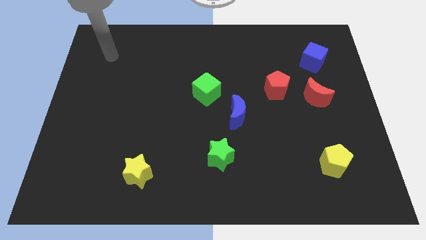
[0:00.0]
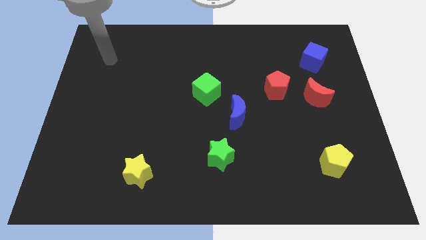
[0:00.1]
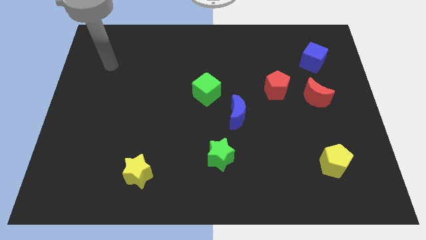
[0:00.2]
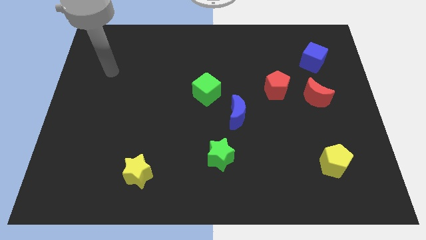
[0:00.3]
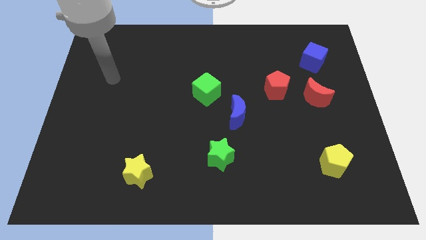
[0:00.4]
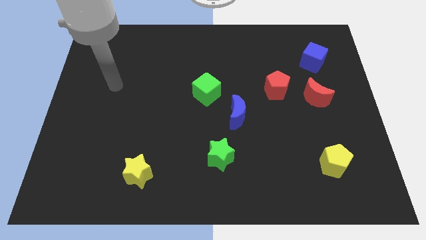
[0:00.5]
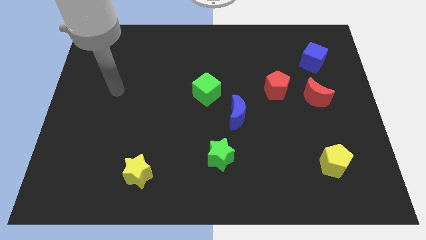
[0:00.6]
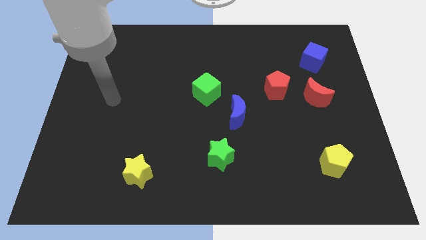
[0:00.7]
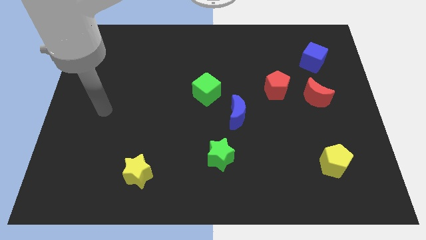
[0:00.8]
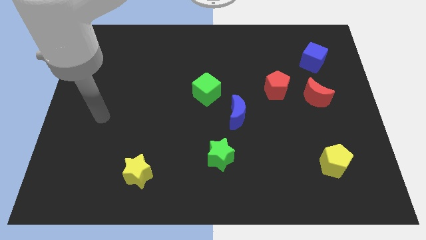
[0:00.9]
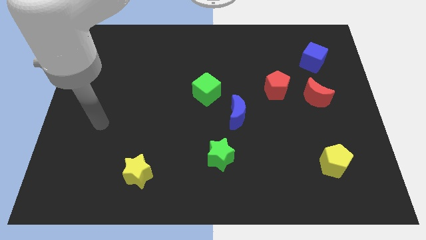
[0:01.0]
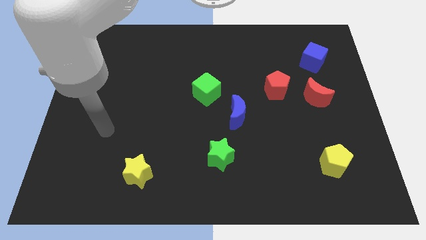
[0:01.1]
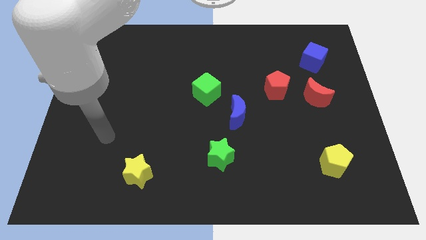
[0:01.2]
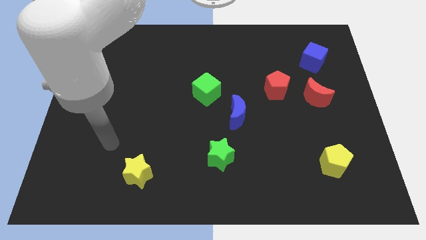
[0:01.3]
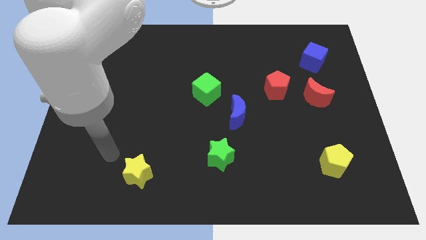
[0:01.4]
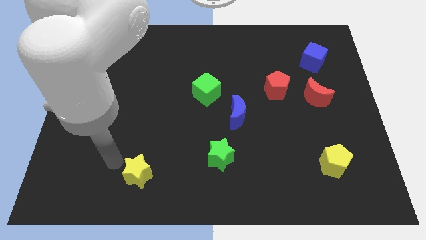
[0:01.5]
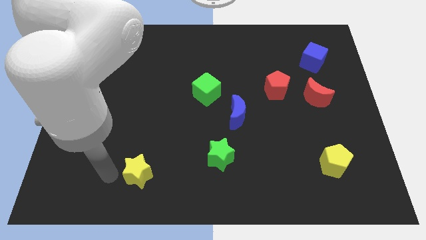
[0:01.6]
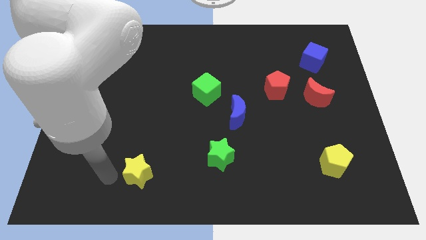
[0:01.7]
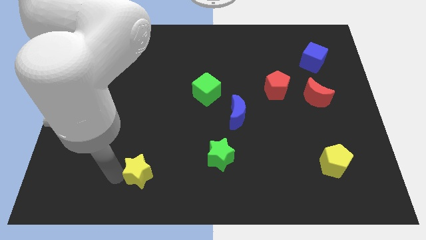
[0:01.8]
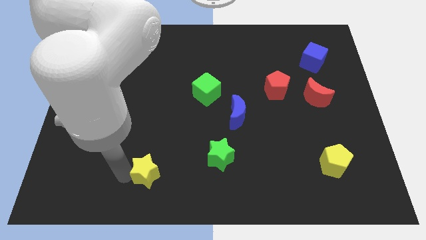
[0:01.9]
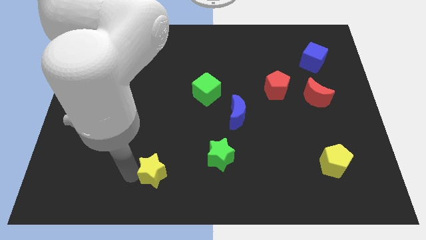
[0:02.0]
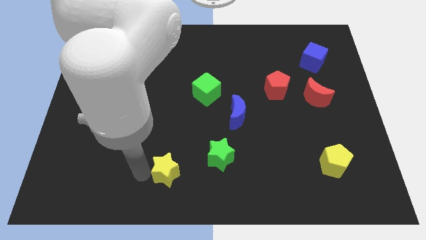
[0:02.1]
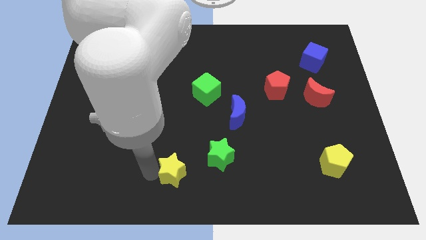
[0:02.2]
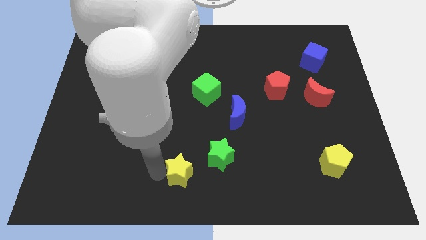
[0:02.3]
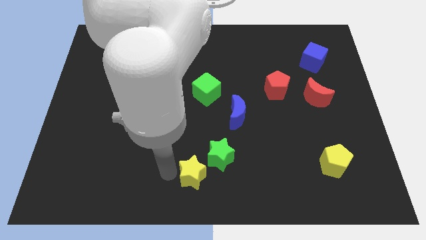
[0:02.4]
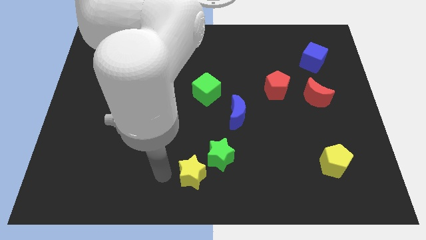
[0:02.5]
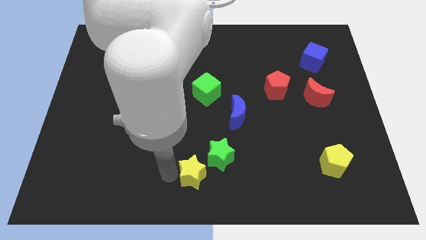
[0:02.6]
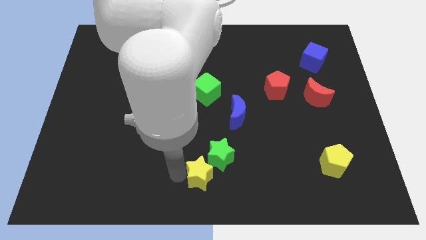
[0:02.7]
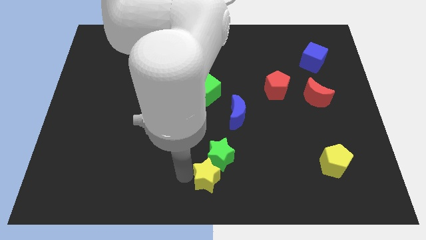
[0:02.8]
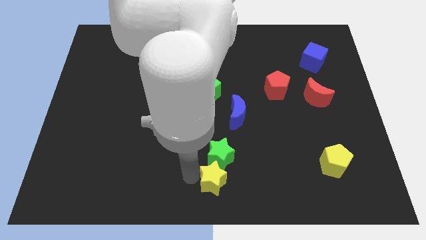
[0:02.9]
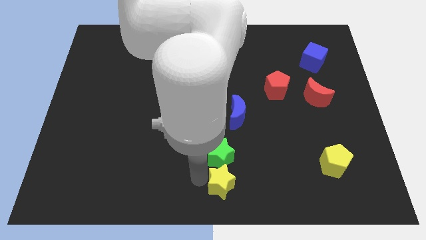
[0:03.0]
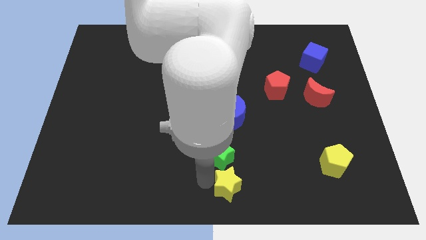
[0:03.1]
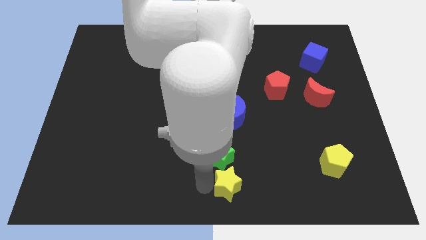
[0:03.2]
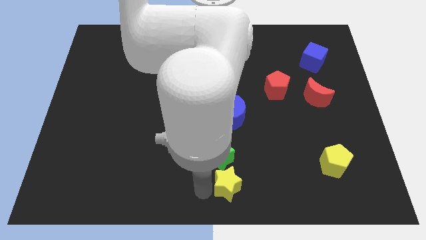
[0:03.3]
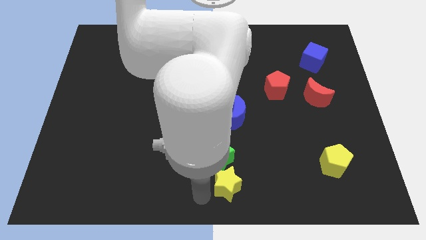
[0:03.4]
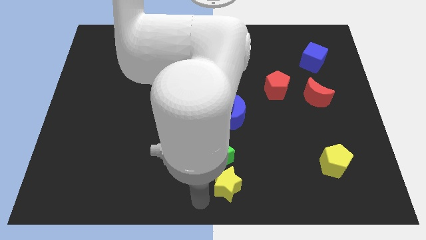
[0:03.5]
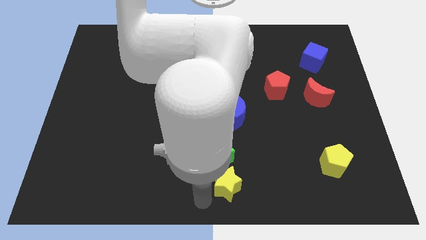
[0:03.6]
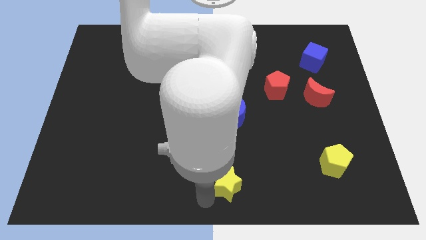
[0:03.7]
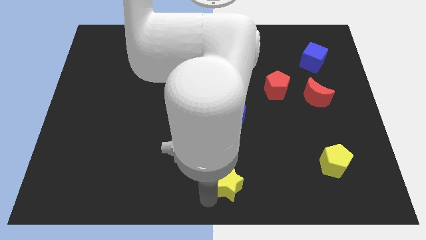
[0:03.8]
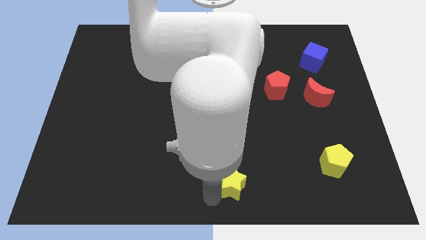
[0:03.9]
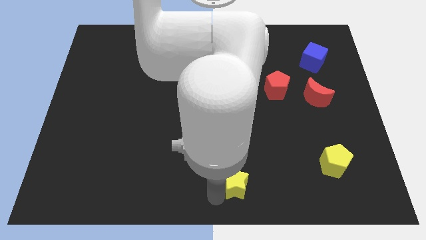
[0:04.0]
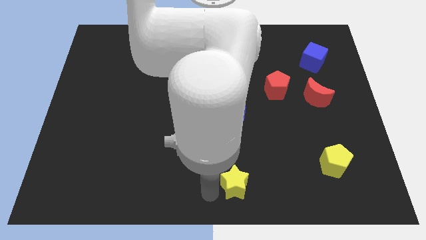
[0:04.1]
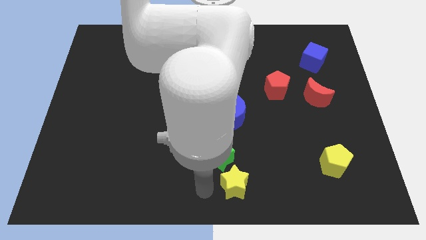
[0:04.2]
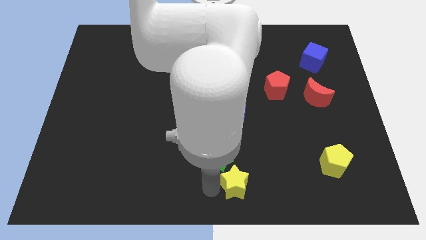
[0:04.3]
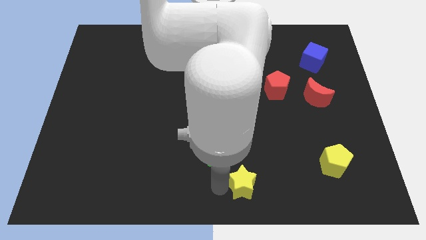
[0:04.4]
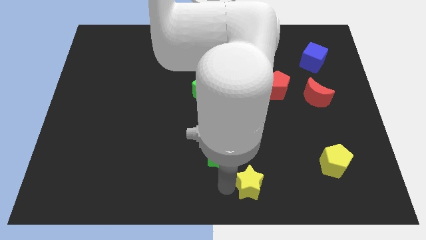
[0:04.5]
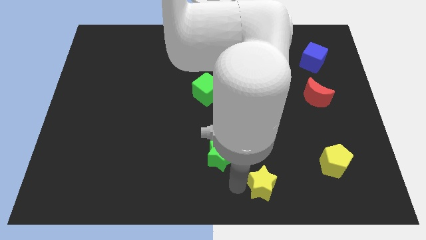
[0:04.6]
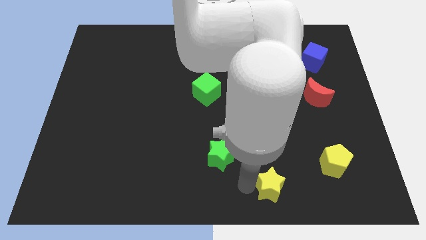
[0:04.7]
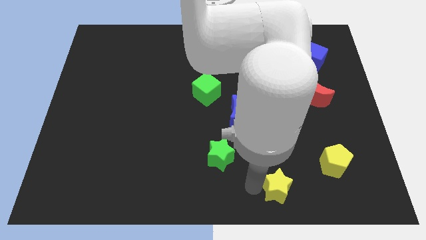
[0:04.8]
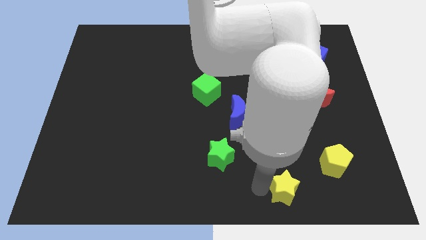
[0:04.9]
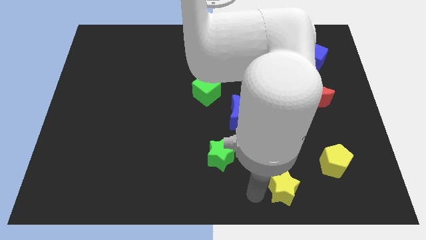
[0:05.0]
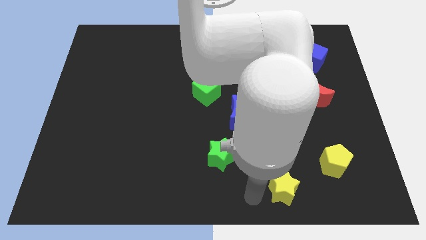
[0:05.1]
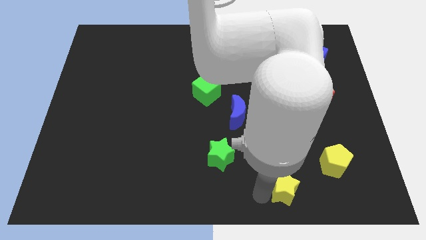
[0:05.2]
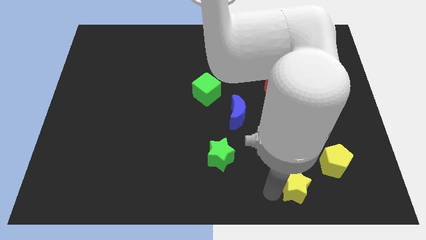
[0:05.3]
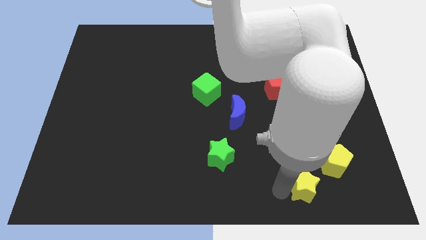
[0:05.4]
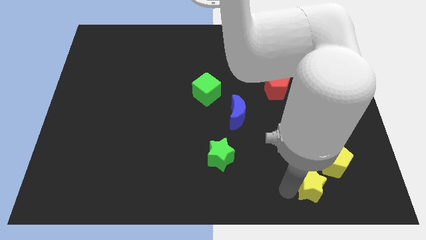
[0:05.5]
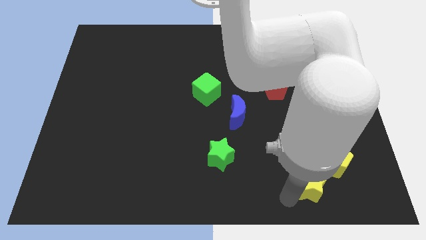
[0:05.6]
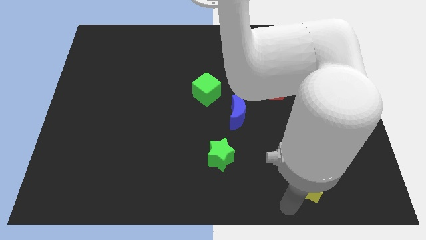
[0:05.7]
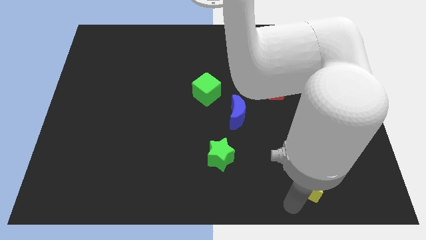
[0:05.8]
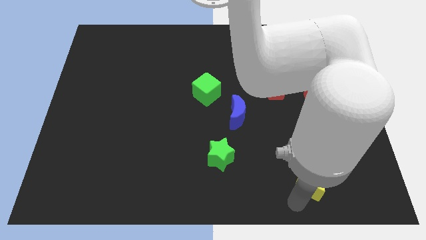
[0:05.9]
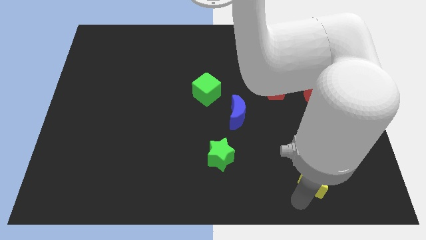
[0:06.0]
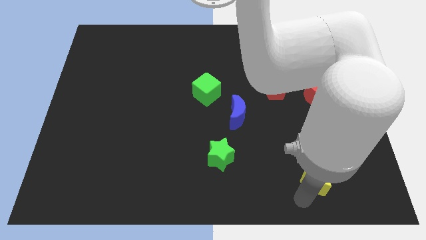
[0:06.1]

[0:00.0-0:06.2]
move the yellow star towards the yellow pentagon

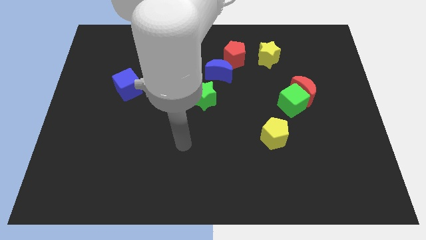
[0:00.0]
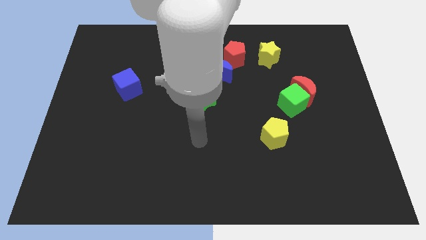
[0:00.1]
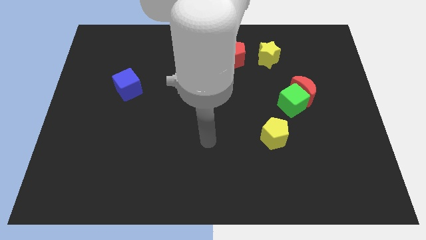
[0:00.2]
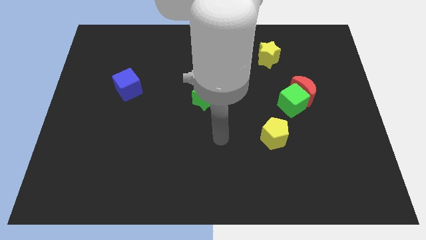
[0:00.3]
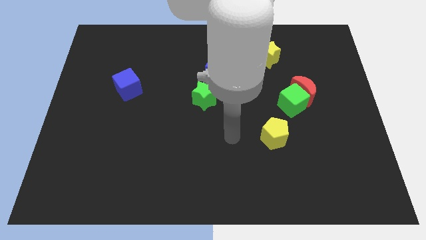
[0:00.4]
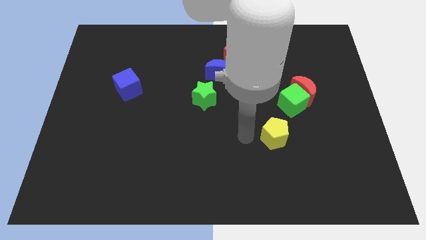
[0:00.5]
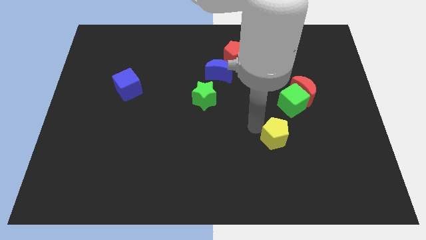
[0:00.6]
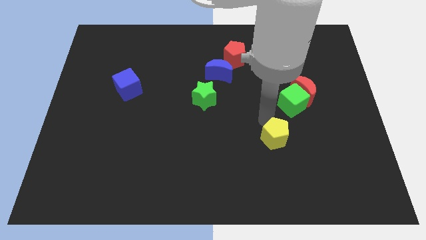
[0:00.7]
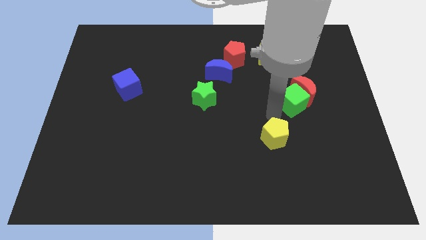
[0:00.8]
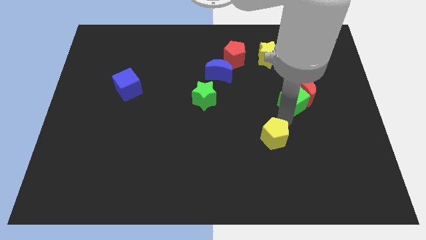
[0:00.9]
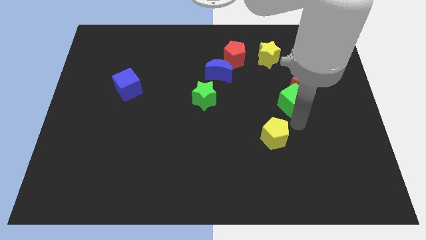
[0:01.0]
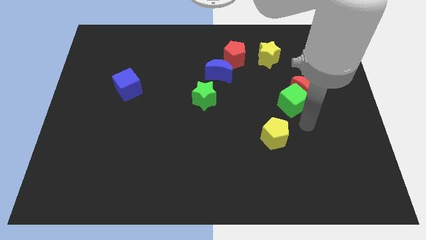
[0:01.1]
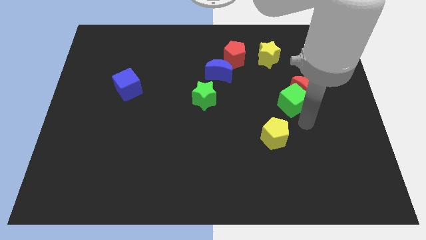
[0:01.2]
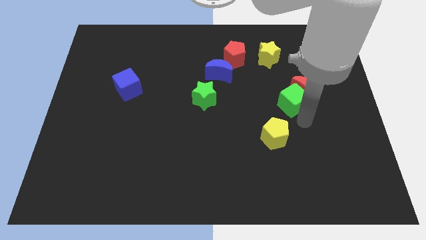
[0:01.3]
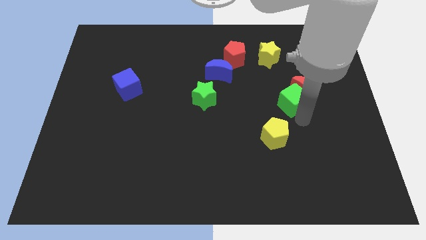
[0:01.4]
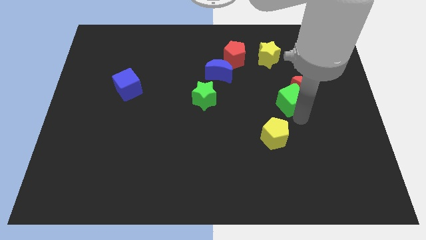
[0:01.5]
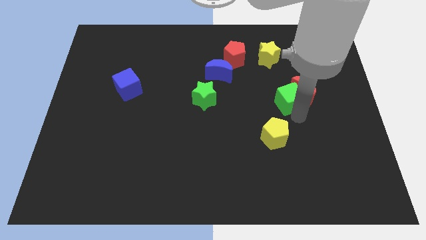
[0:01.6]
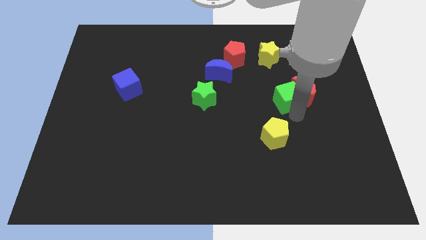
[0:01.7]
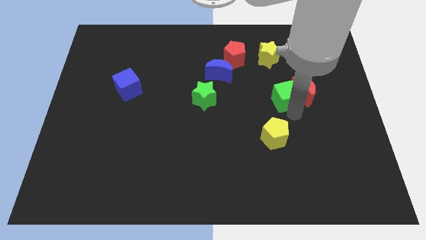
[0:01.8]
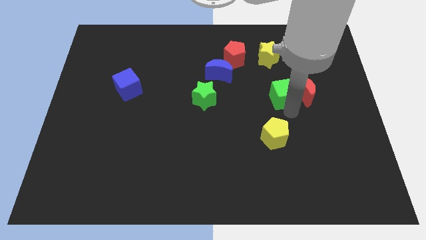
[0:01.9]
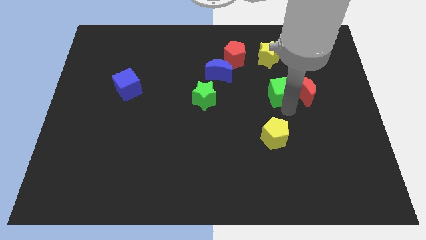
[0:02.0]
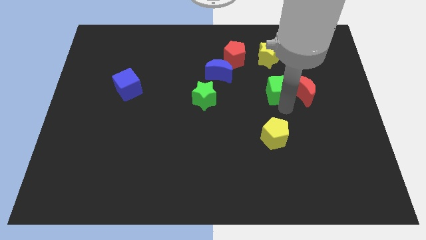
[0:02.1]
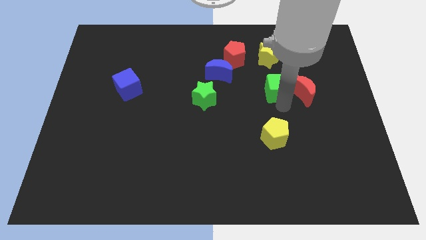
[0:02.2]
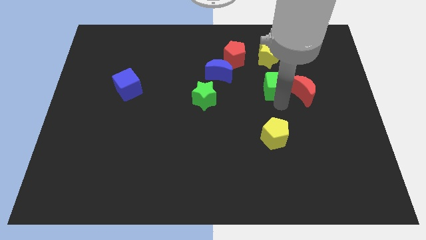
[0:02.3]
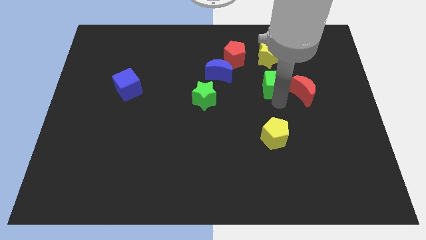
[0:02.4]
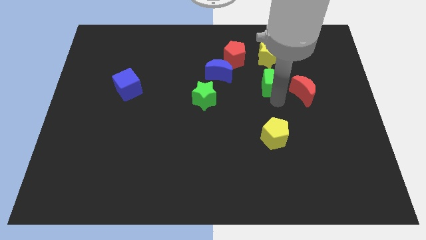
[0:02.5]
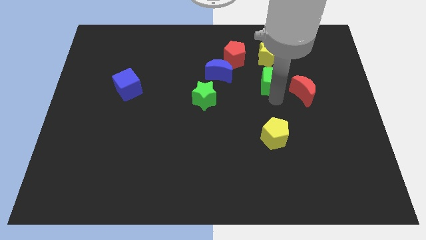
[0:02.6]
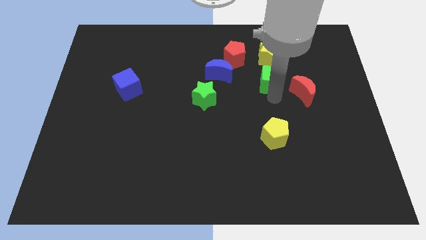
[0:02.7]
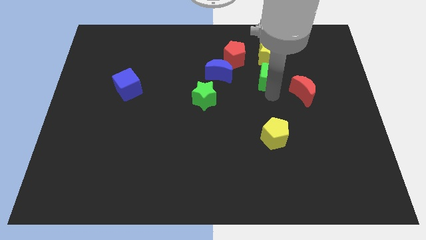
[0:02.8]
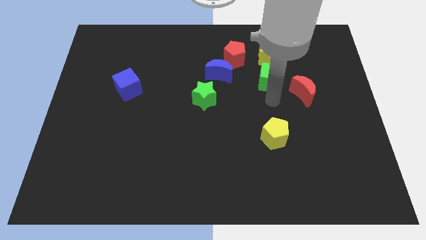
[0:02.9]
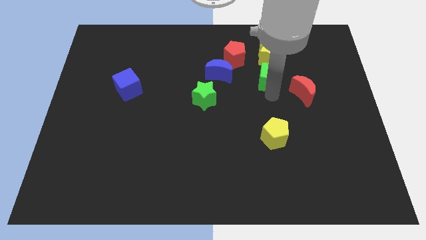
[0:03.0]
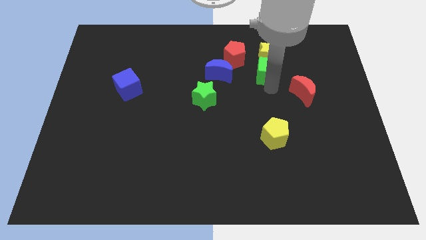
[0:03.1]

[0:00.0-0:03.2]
put the green cube next to the yellow star
